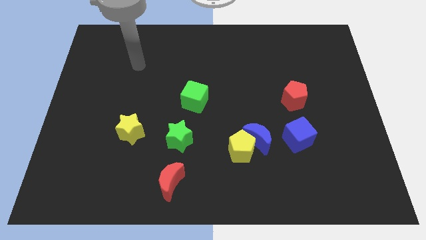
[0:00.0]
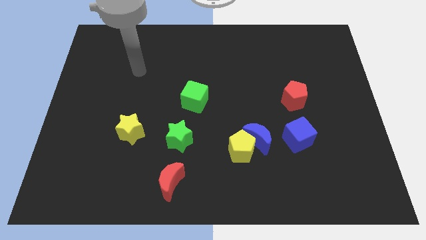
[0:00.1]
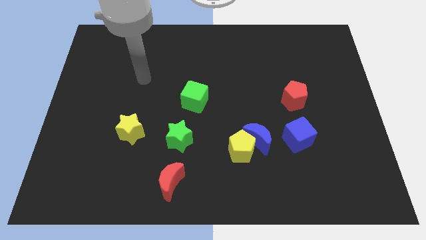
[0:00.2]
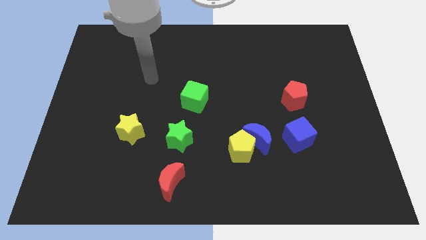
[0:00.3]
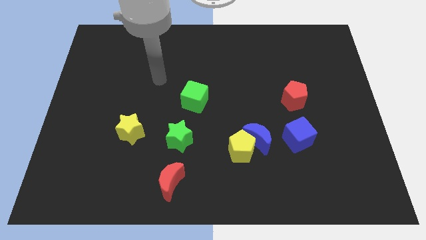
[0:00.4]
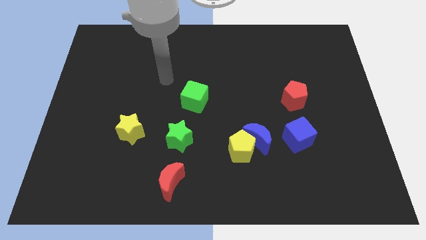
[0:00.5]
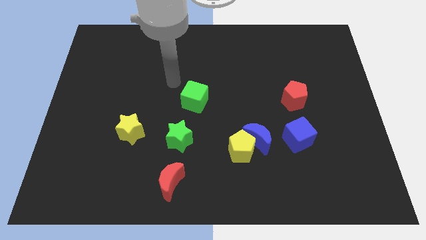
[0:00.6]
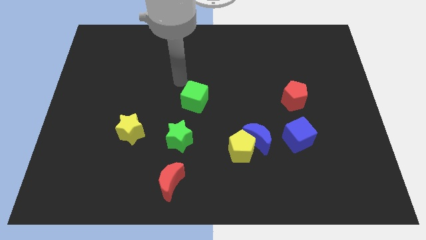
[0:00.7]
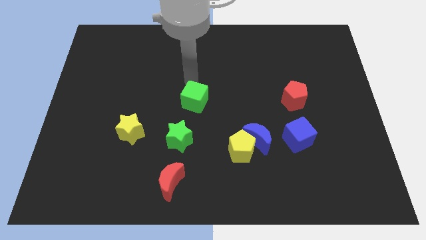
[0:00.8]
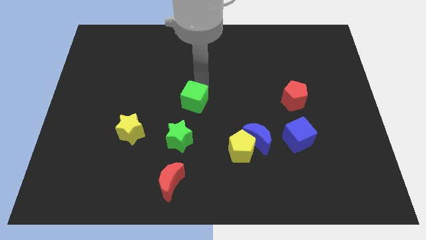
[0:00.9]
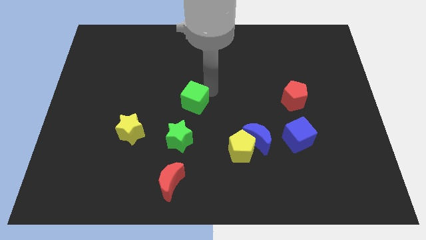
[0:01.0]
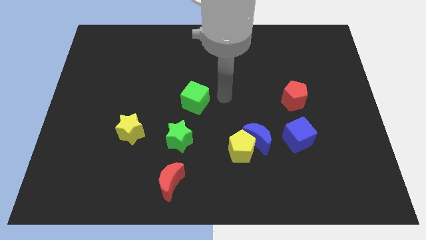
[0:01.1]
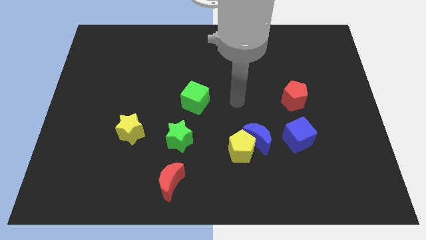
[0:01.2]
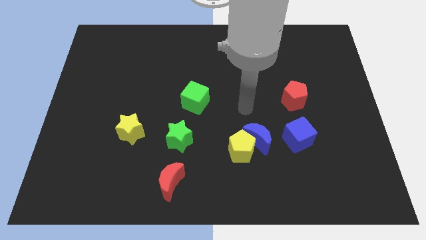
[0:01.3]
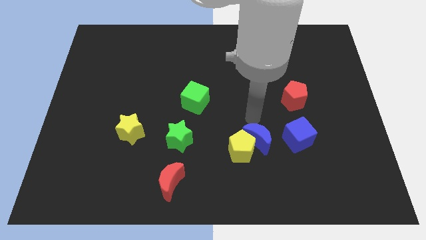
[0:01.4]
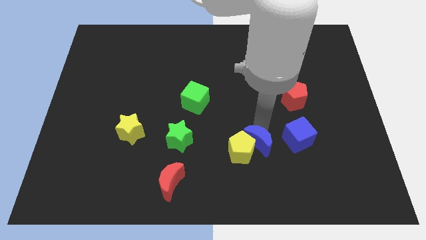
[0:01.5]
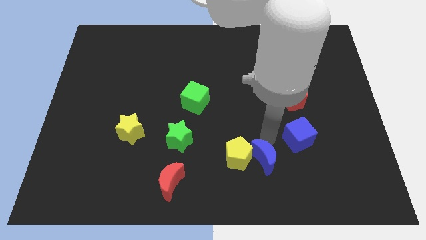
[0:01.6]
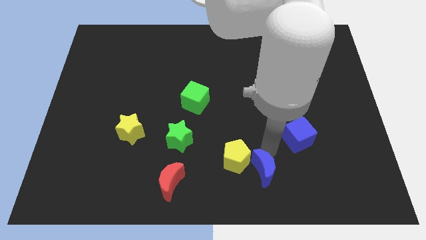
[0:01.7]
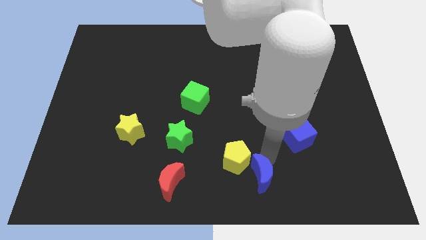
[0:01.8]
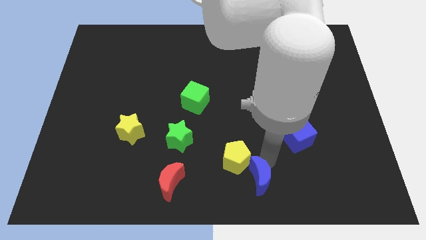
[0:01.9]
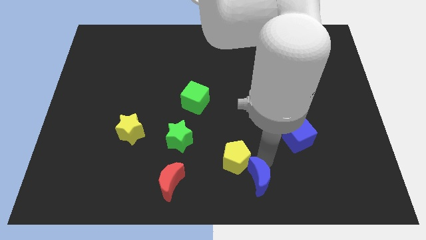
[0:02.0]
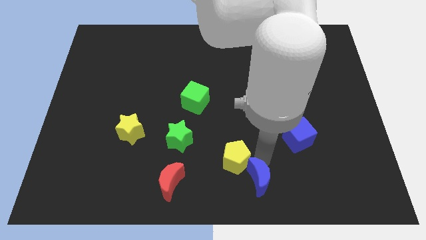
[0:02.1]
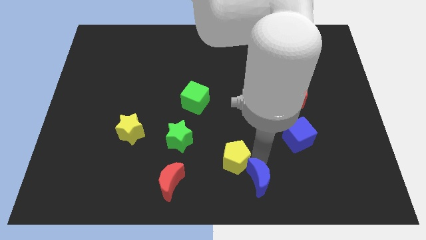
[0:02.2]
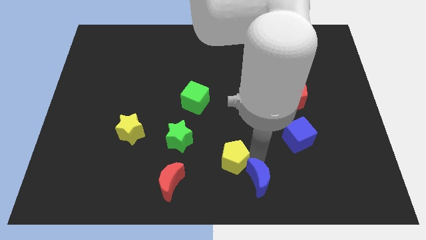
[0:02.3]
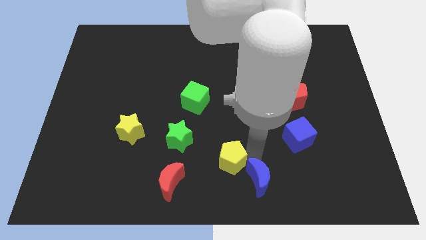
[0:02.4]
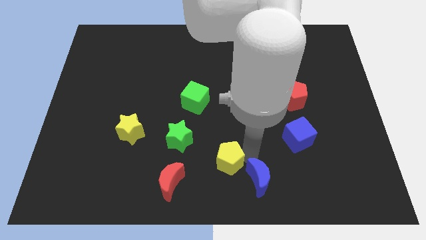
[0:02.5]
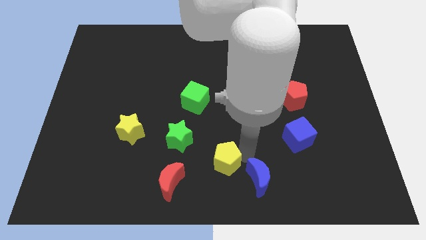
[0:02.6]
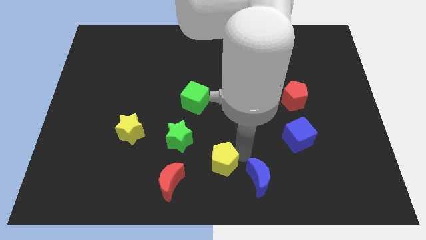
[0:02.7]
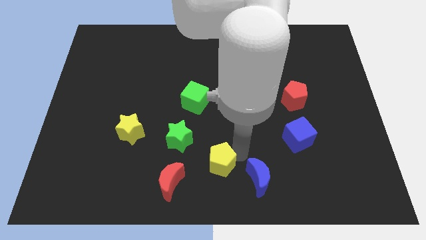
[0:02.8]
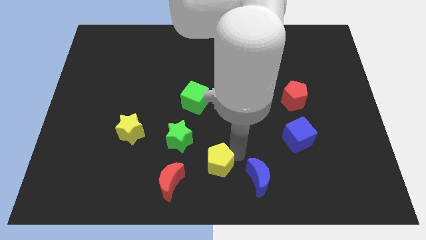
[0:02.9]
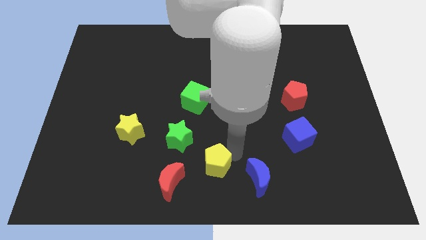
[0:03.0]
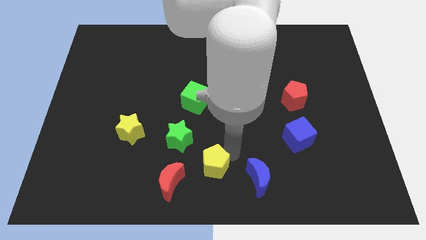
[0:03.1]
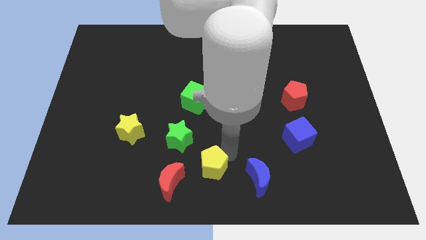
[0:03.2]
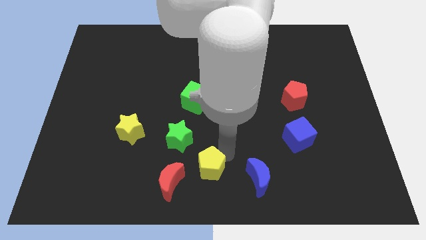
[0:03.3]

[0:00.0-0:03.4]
move the yellow pentagon away from the blue moon

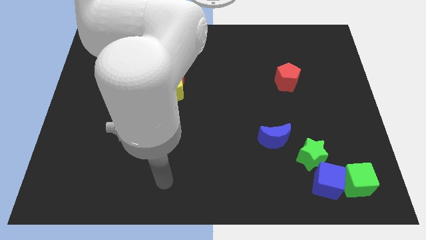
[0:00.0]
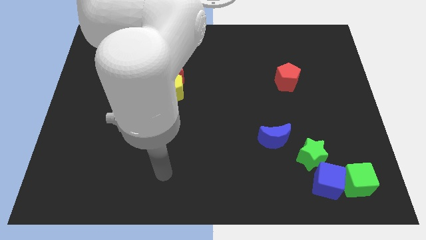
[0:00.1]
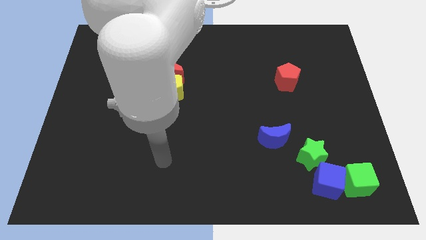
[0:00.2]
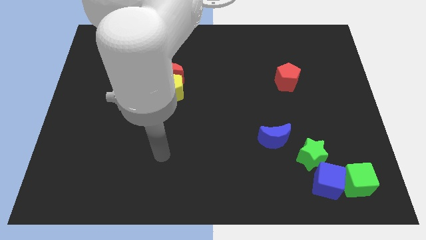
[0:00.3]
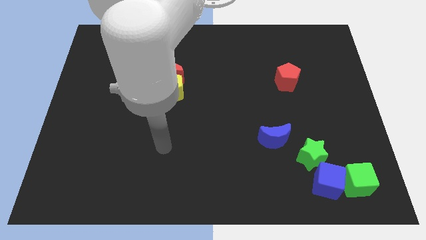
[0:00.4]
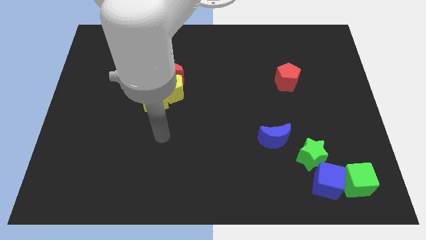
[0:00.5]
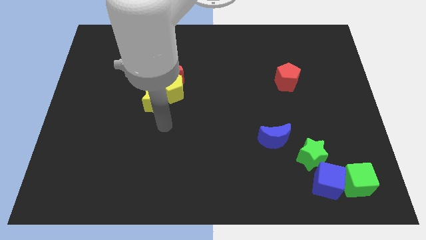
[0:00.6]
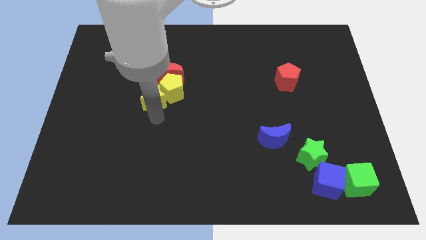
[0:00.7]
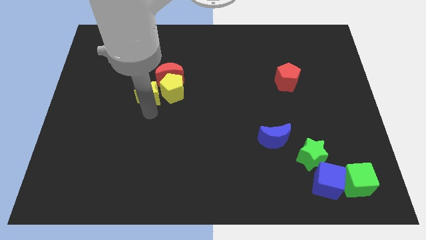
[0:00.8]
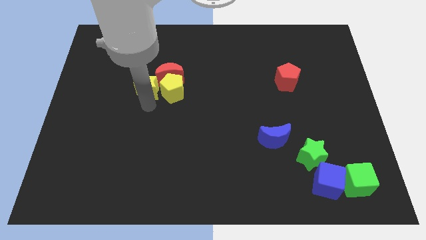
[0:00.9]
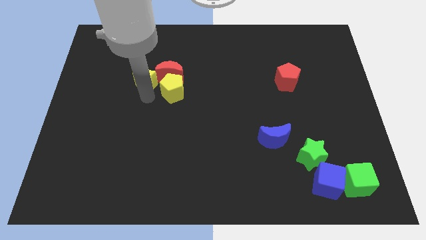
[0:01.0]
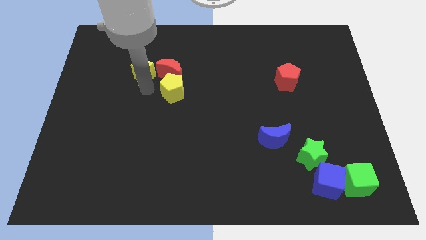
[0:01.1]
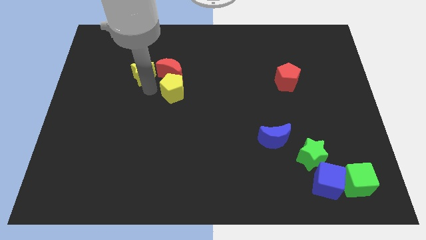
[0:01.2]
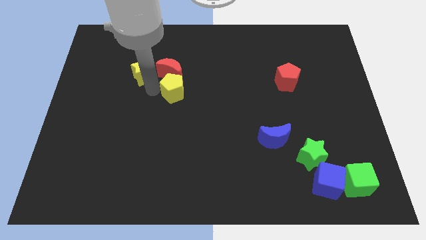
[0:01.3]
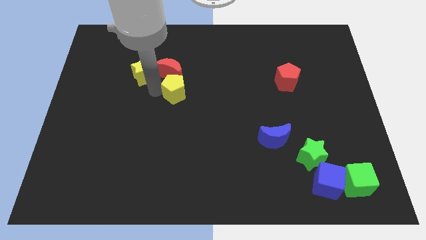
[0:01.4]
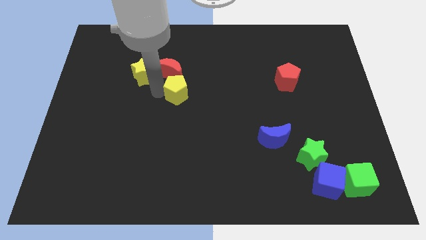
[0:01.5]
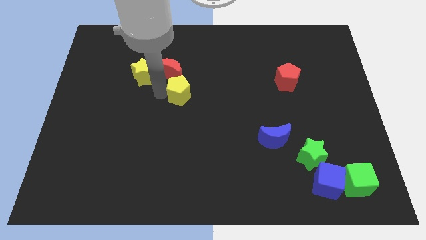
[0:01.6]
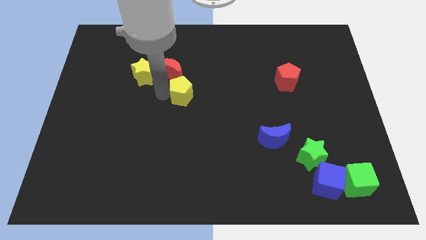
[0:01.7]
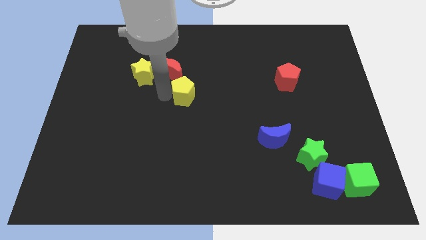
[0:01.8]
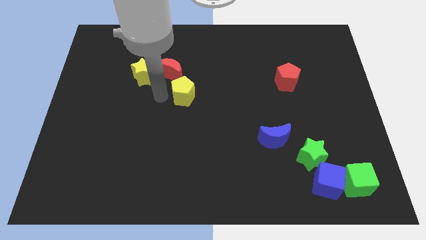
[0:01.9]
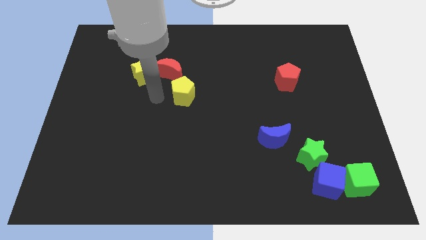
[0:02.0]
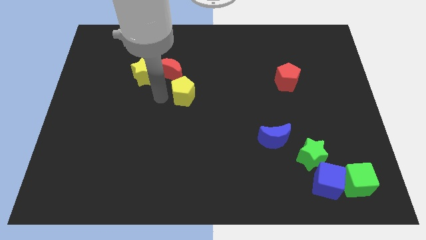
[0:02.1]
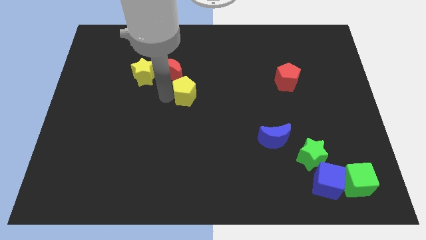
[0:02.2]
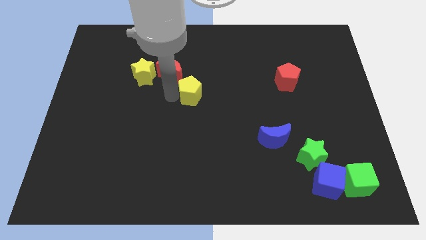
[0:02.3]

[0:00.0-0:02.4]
move the yellow pentagon away from the red moon and yellow star

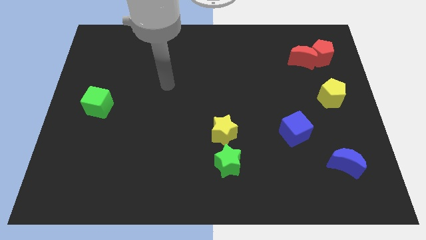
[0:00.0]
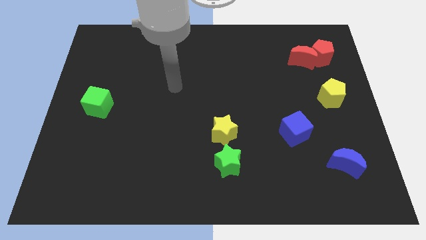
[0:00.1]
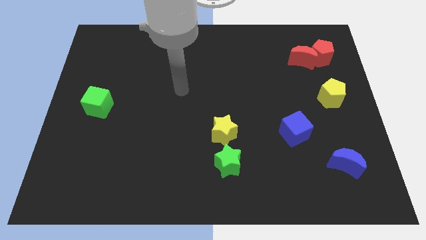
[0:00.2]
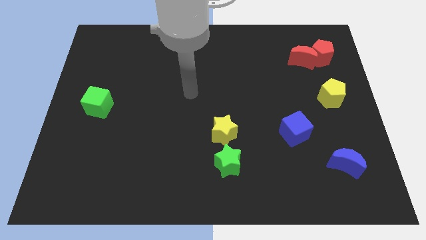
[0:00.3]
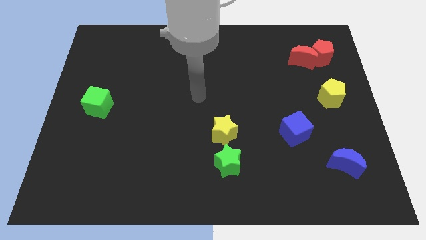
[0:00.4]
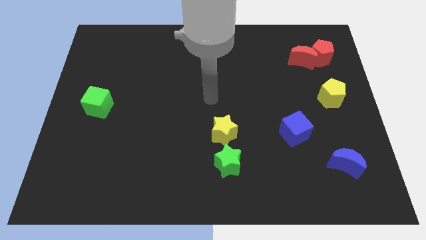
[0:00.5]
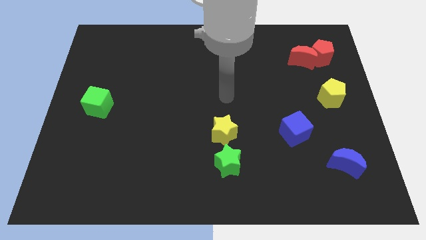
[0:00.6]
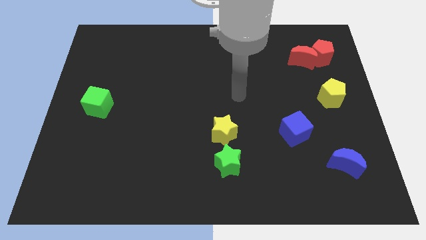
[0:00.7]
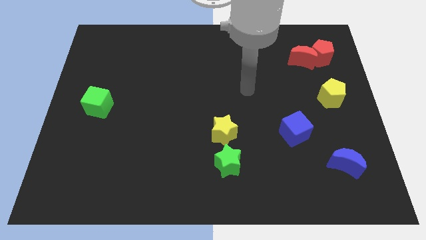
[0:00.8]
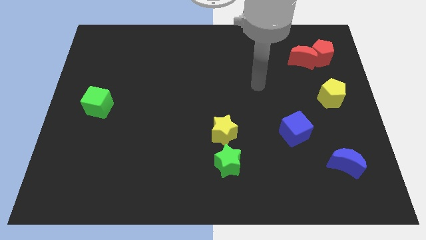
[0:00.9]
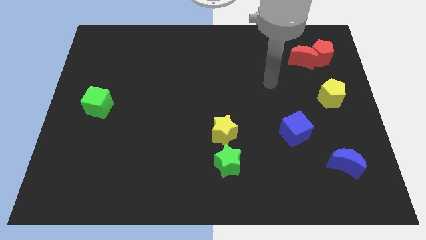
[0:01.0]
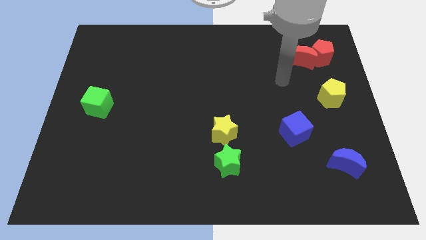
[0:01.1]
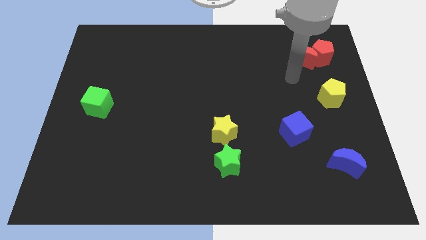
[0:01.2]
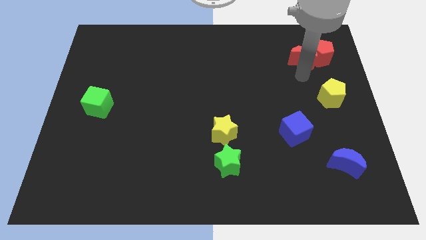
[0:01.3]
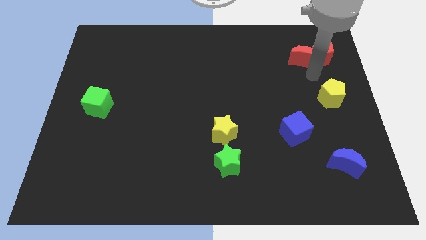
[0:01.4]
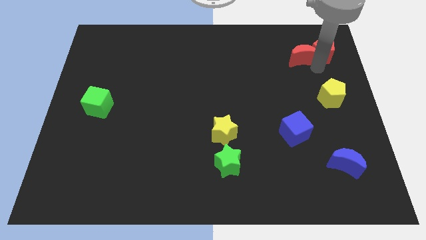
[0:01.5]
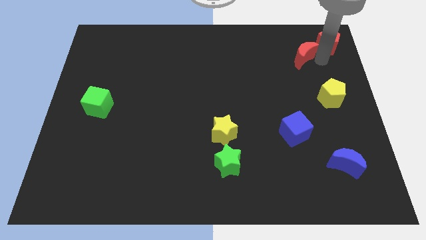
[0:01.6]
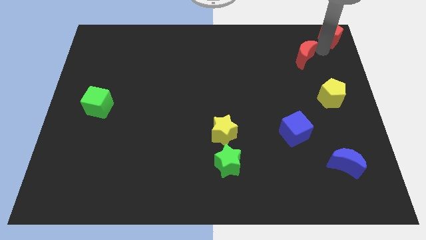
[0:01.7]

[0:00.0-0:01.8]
separate the red moon from the red pentagon

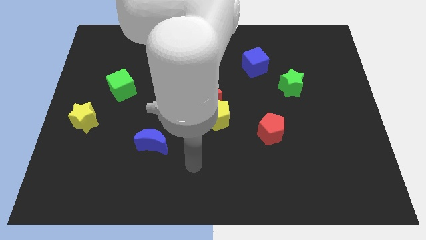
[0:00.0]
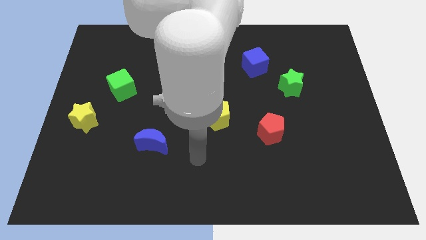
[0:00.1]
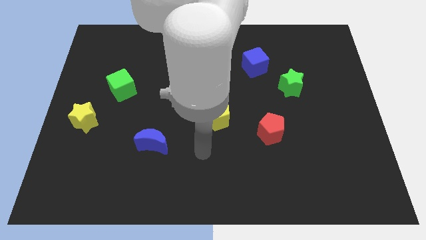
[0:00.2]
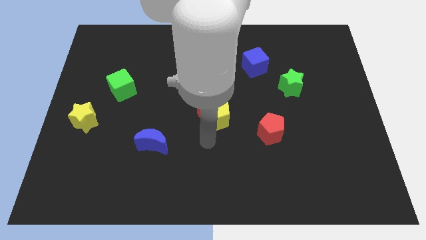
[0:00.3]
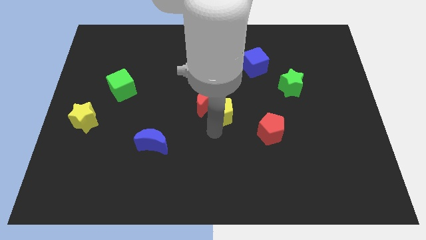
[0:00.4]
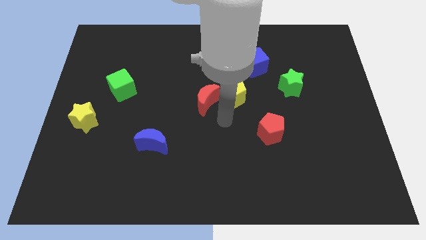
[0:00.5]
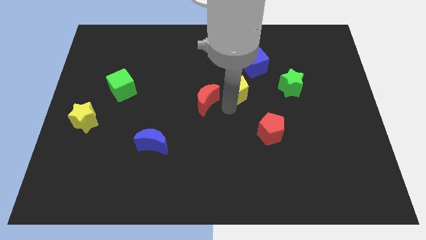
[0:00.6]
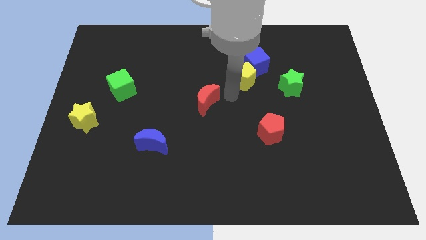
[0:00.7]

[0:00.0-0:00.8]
separate the red moon from the yellow pentagon

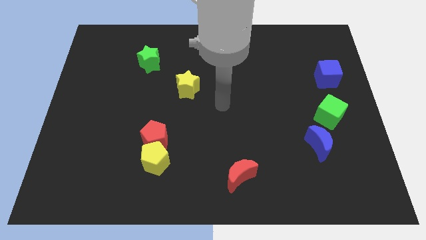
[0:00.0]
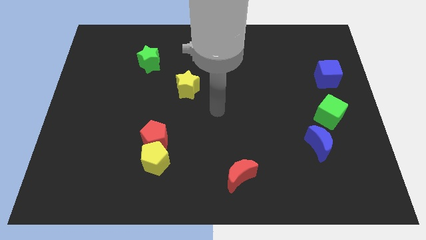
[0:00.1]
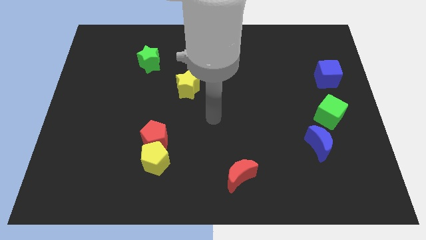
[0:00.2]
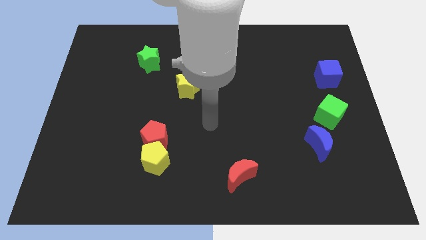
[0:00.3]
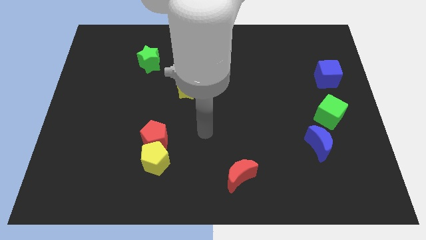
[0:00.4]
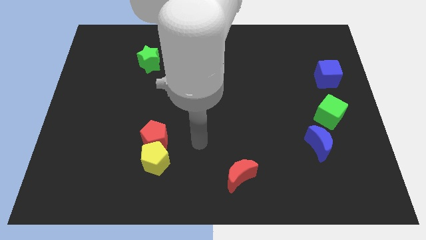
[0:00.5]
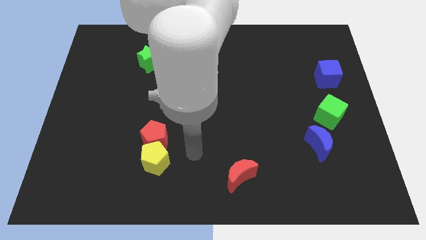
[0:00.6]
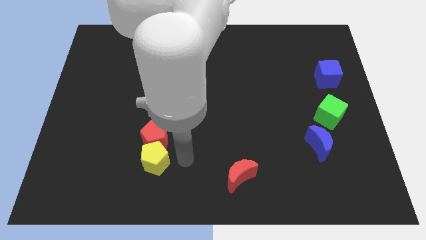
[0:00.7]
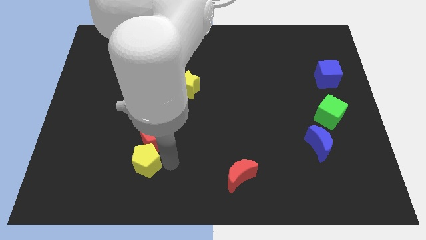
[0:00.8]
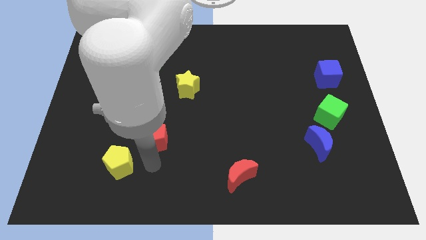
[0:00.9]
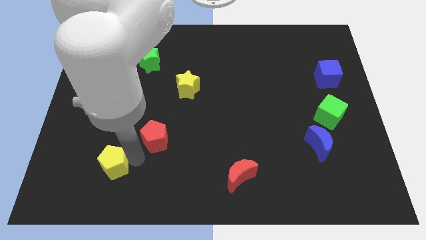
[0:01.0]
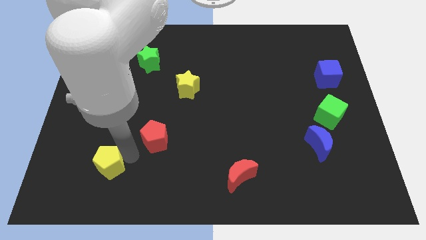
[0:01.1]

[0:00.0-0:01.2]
separate the red pentagon from the yellow pentagon
